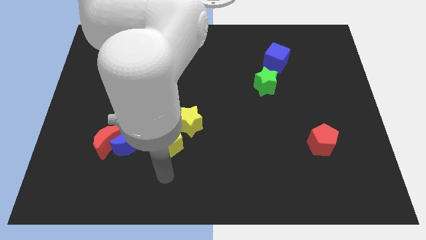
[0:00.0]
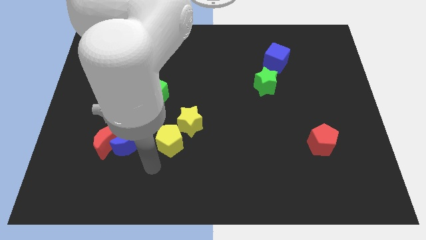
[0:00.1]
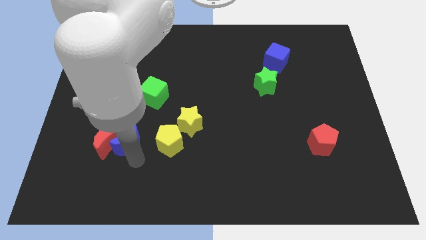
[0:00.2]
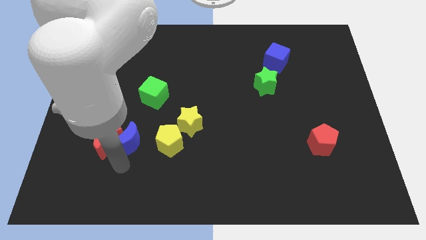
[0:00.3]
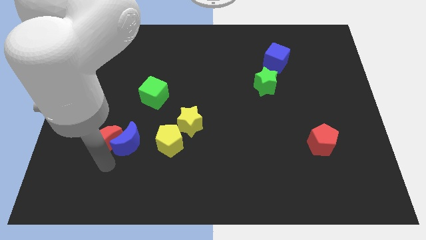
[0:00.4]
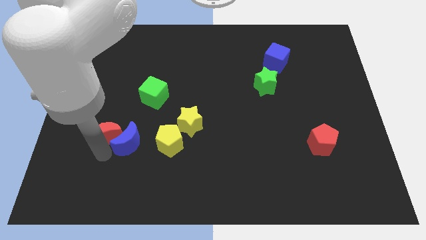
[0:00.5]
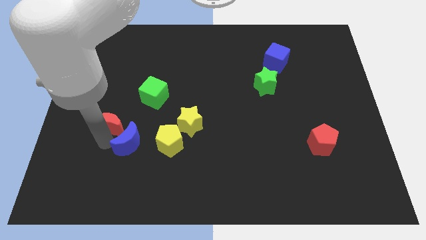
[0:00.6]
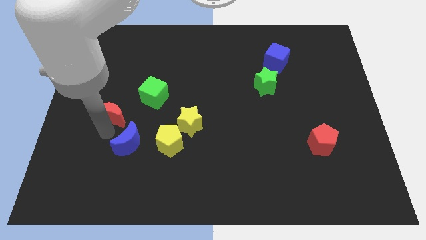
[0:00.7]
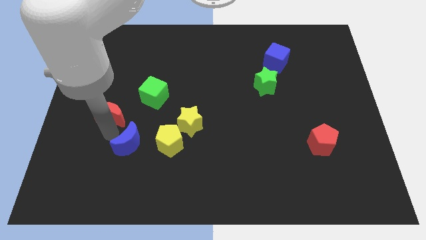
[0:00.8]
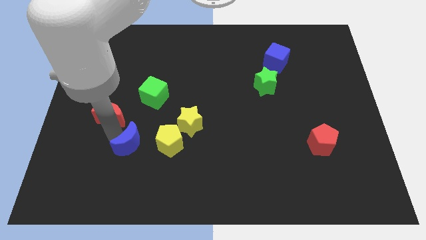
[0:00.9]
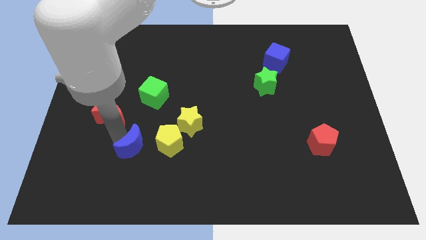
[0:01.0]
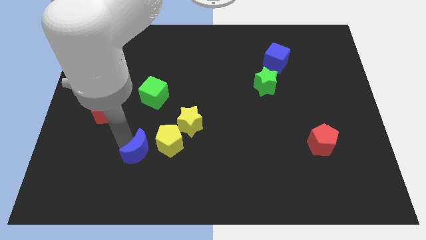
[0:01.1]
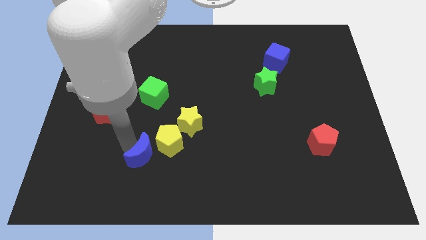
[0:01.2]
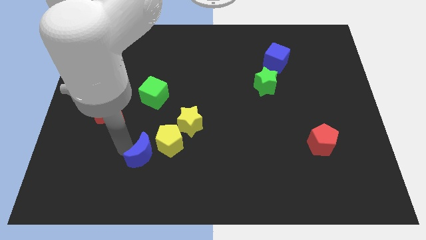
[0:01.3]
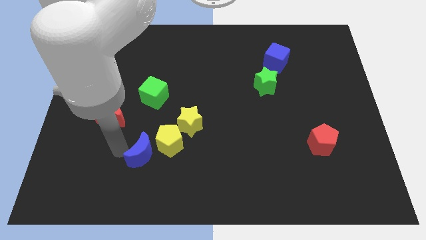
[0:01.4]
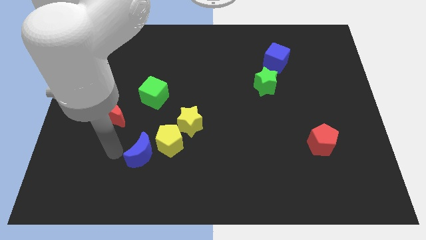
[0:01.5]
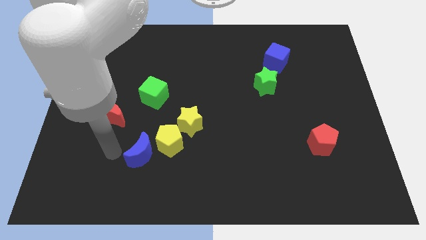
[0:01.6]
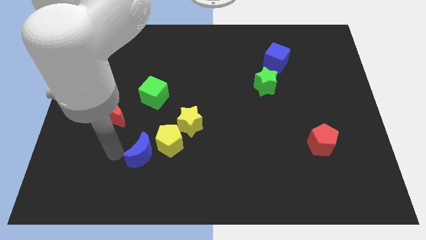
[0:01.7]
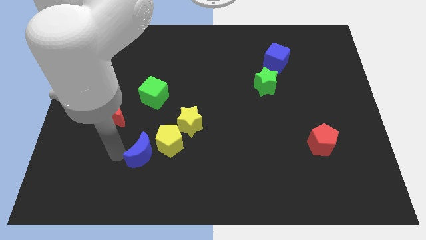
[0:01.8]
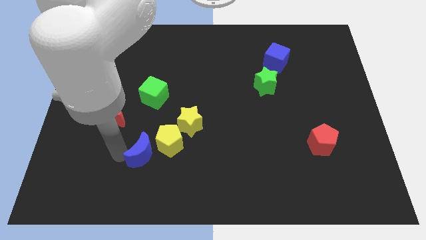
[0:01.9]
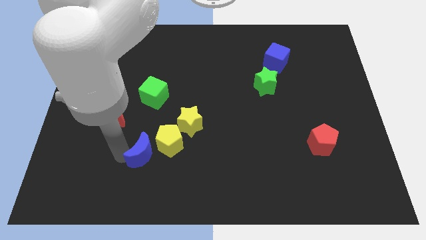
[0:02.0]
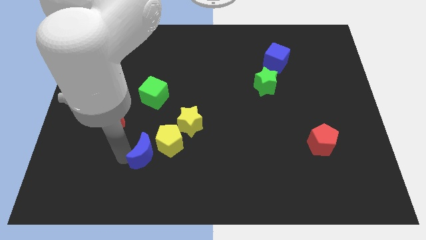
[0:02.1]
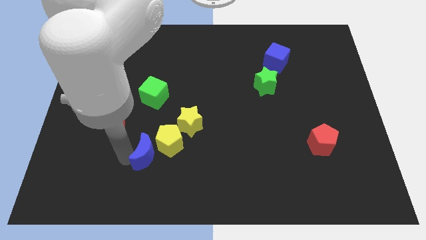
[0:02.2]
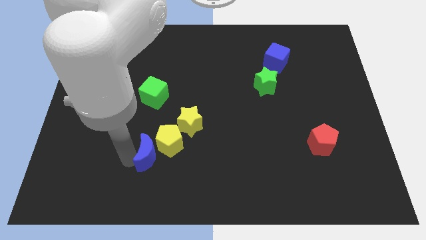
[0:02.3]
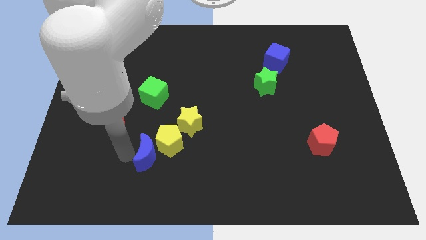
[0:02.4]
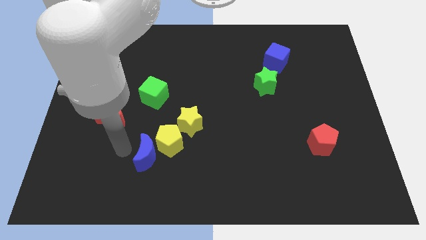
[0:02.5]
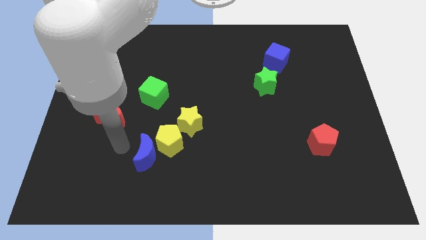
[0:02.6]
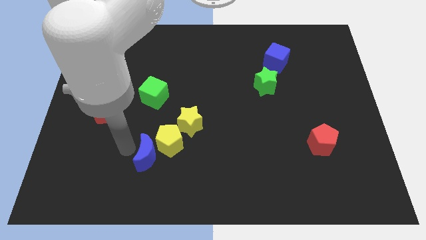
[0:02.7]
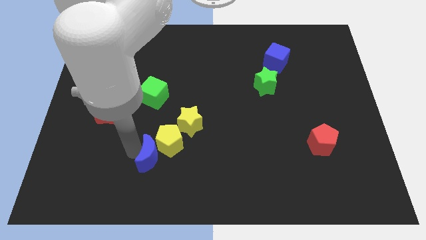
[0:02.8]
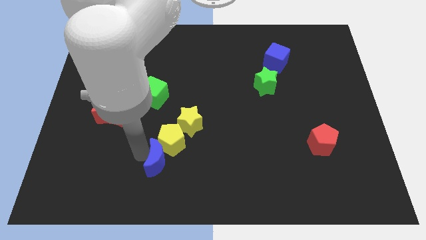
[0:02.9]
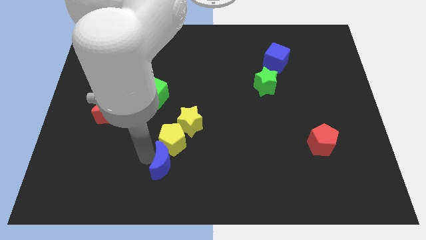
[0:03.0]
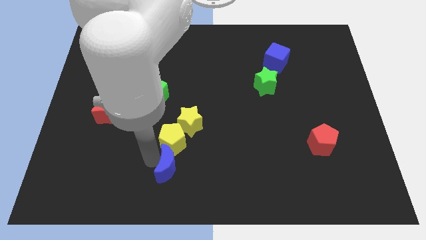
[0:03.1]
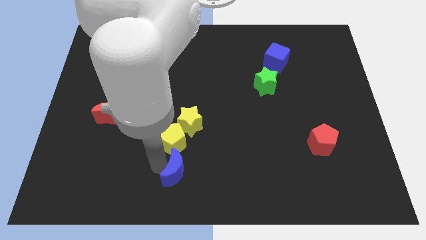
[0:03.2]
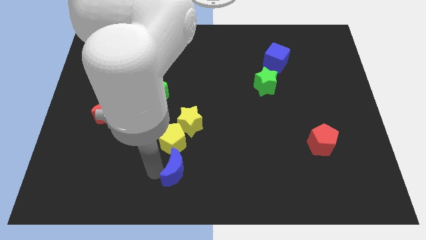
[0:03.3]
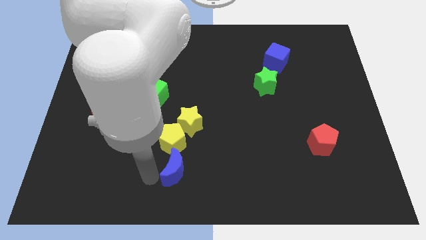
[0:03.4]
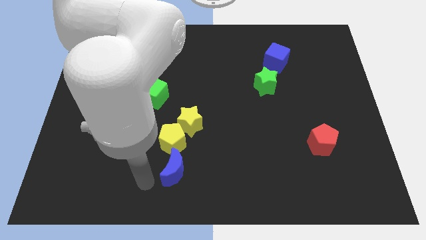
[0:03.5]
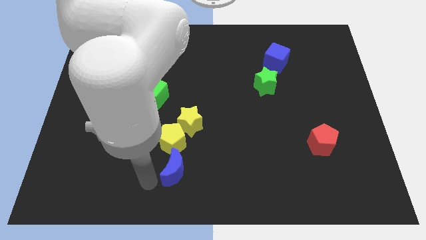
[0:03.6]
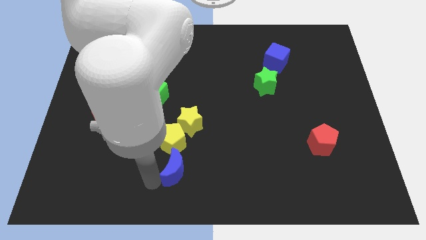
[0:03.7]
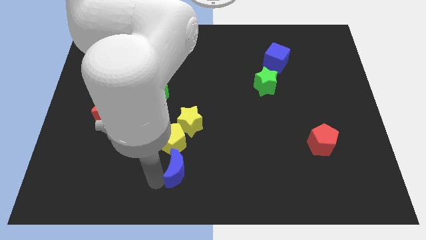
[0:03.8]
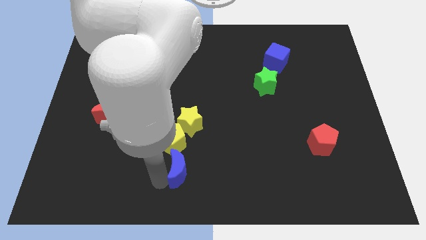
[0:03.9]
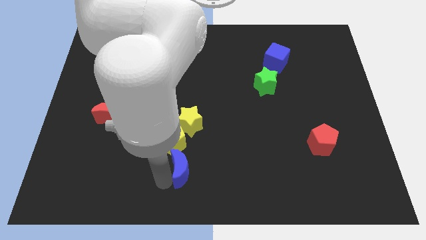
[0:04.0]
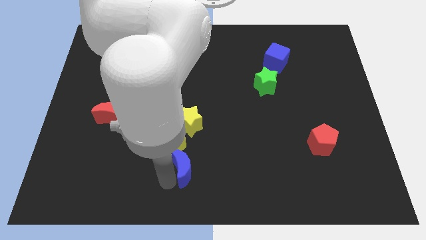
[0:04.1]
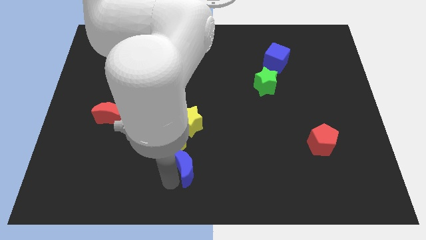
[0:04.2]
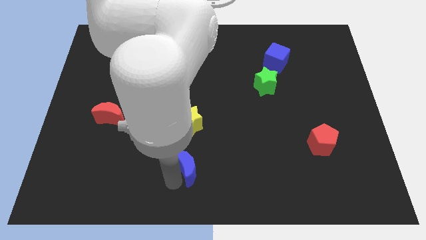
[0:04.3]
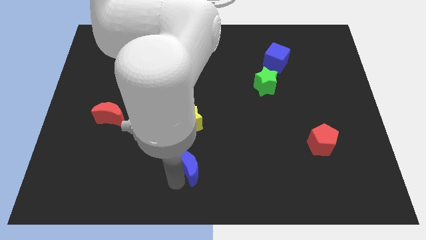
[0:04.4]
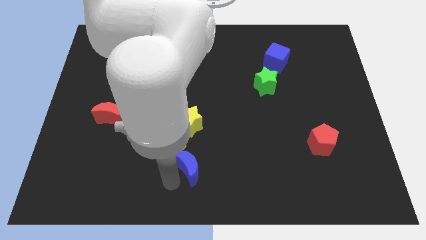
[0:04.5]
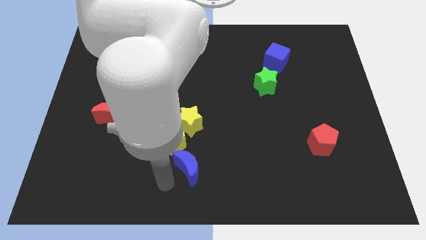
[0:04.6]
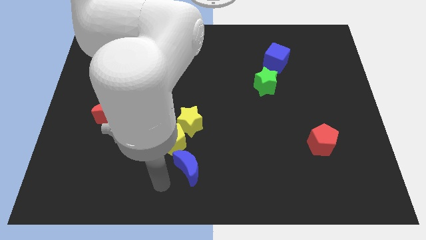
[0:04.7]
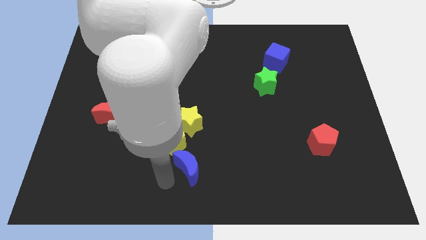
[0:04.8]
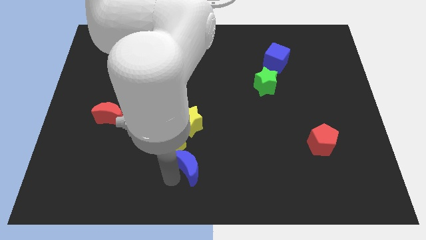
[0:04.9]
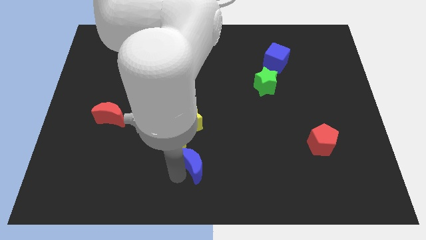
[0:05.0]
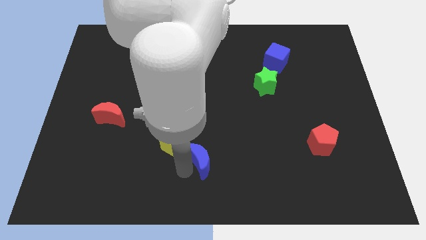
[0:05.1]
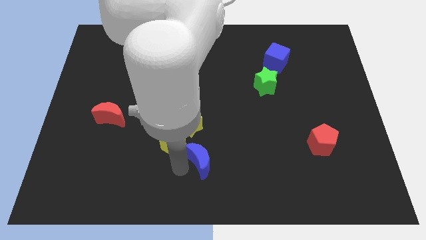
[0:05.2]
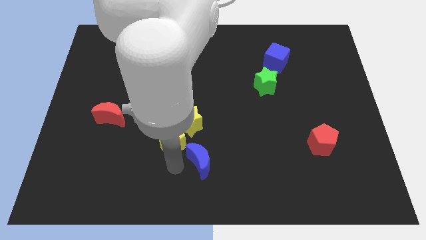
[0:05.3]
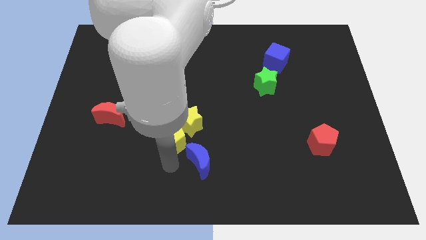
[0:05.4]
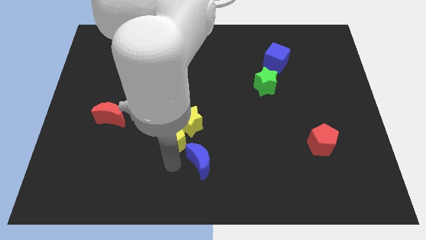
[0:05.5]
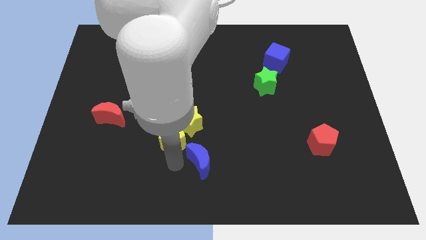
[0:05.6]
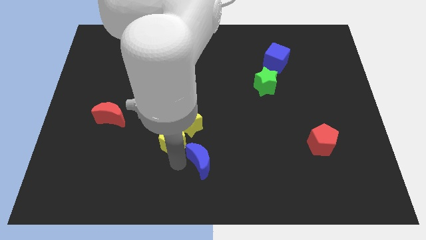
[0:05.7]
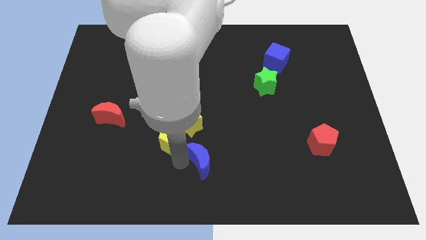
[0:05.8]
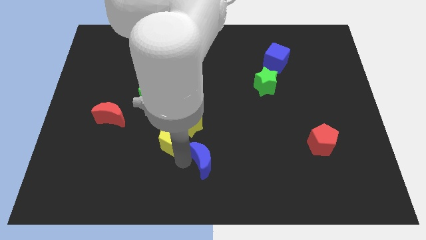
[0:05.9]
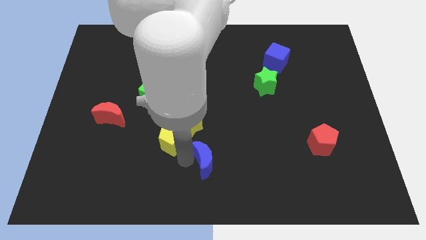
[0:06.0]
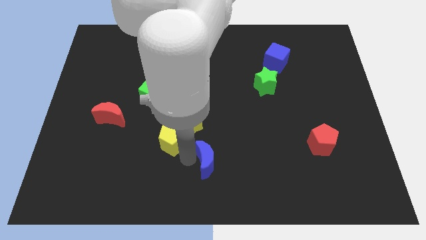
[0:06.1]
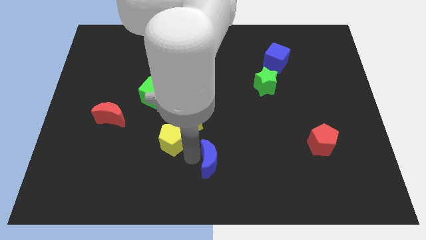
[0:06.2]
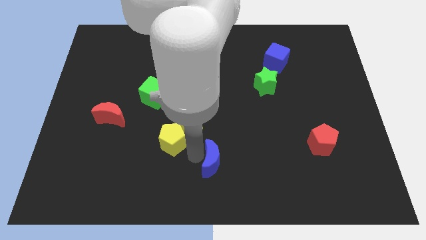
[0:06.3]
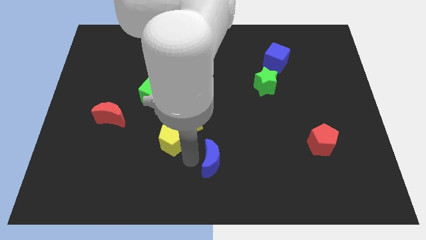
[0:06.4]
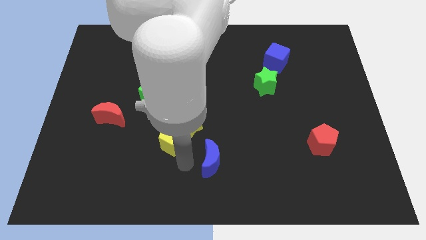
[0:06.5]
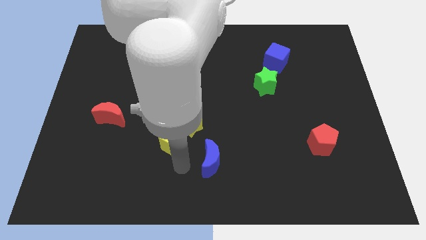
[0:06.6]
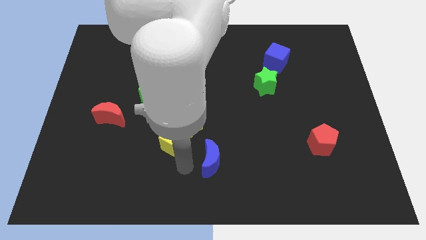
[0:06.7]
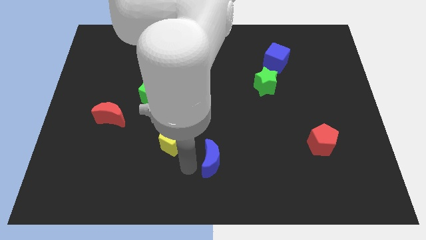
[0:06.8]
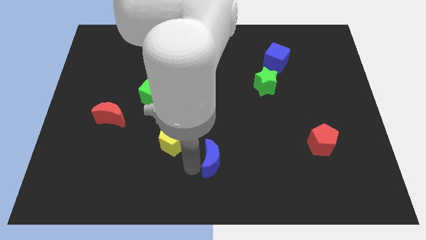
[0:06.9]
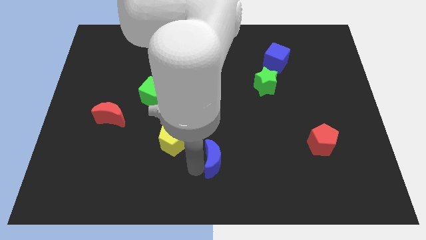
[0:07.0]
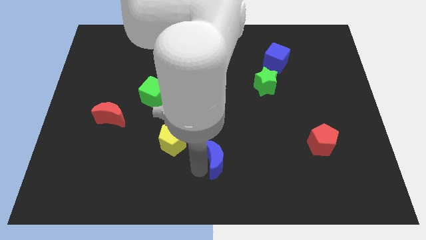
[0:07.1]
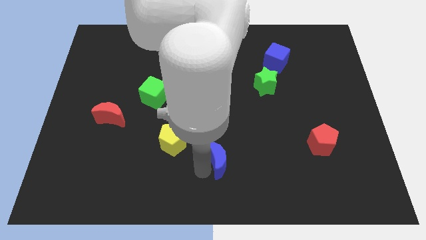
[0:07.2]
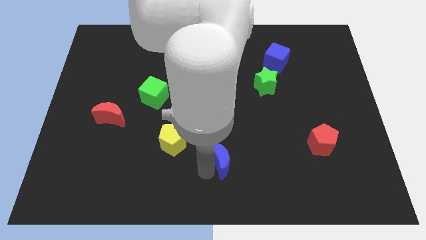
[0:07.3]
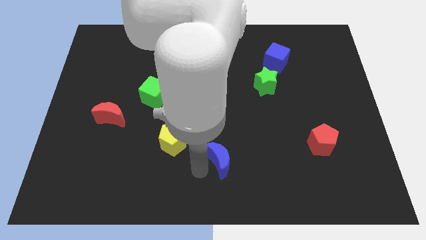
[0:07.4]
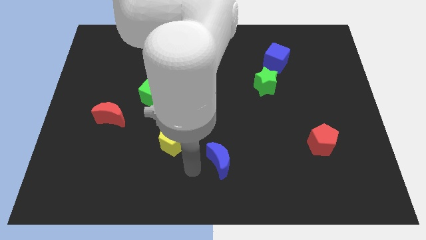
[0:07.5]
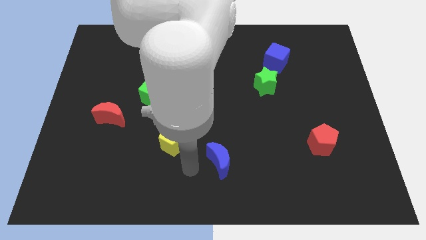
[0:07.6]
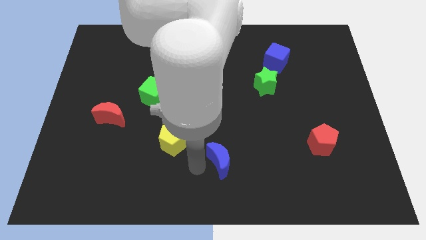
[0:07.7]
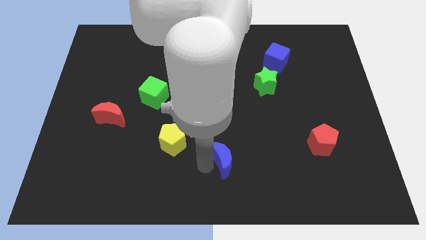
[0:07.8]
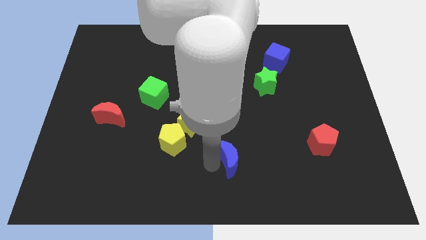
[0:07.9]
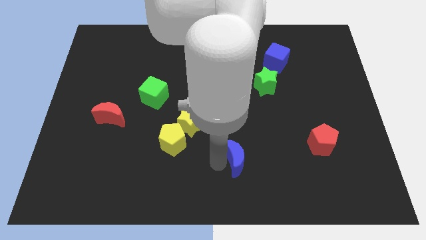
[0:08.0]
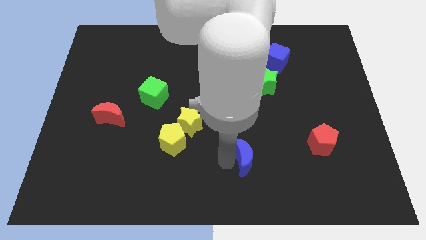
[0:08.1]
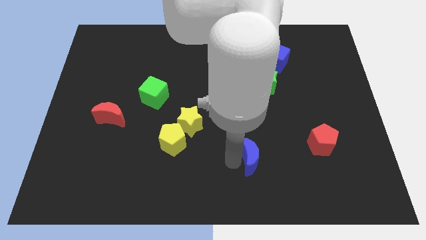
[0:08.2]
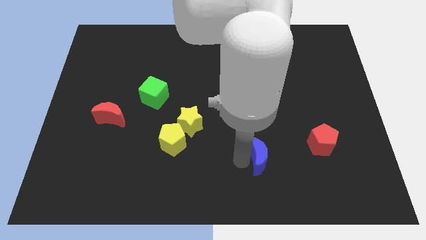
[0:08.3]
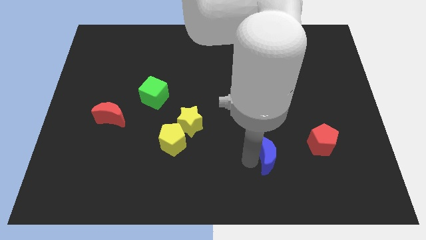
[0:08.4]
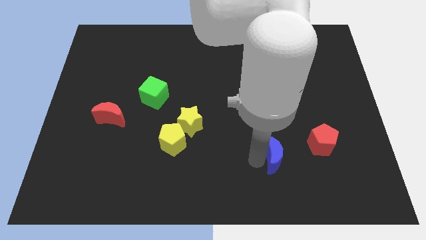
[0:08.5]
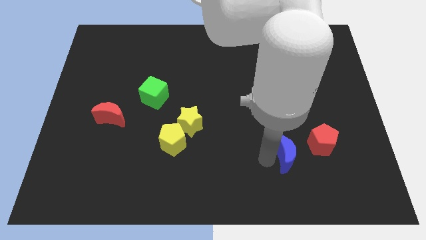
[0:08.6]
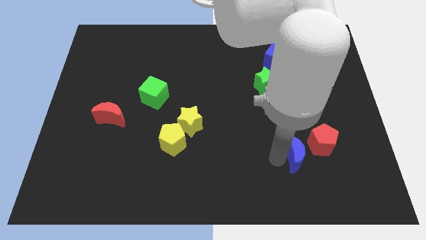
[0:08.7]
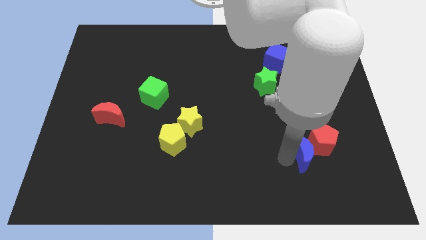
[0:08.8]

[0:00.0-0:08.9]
slide the blue moon next to the red pentagon
